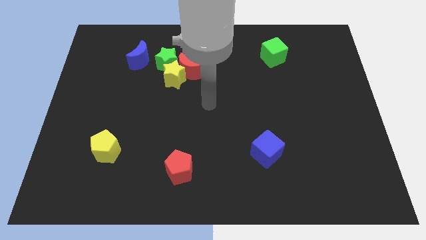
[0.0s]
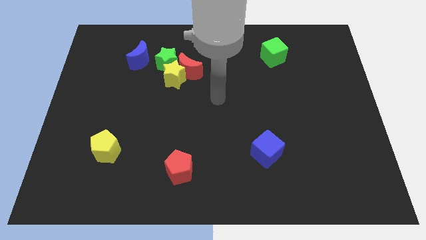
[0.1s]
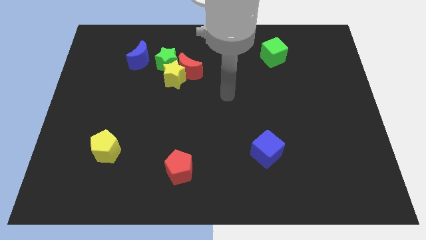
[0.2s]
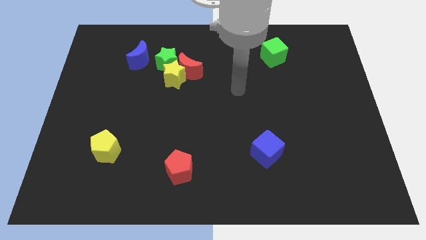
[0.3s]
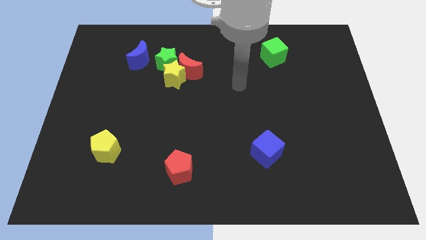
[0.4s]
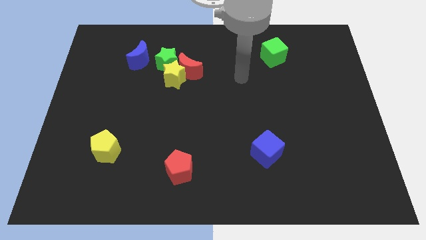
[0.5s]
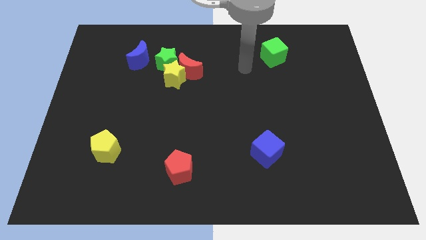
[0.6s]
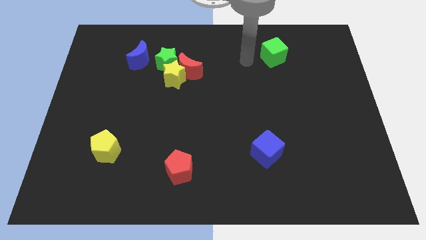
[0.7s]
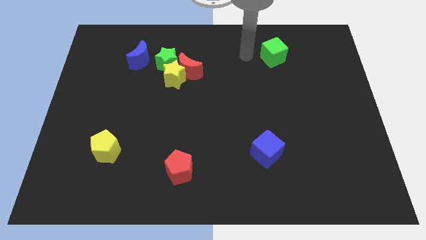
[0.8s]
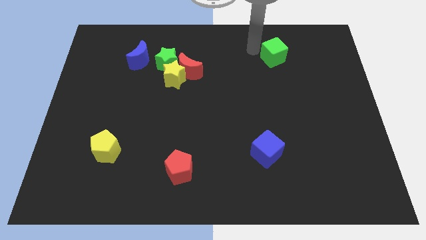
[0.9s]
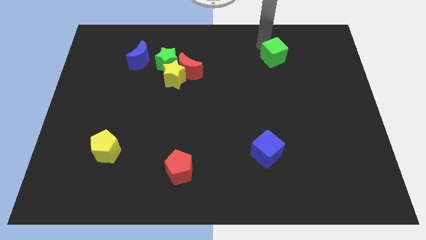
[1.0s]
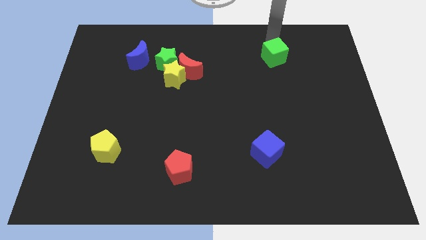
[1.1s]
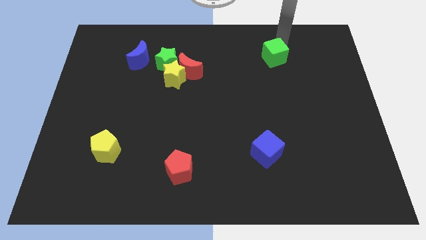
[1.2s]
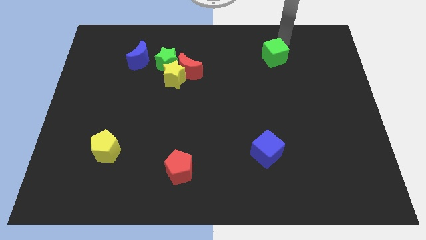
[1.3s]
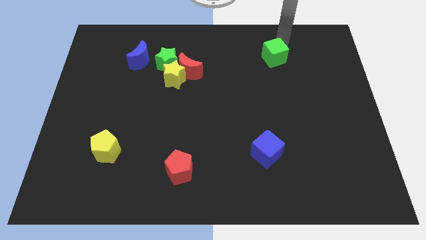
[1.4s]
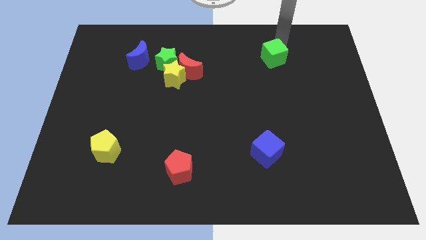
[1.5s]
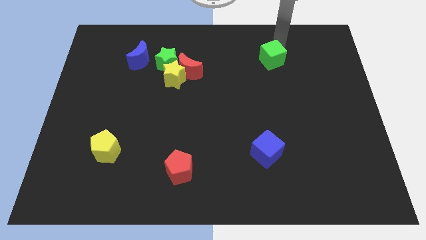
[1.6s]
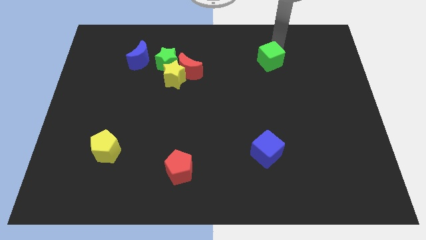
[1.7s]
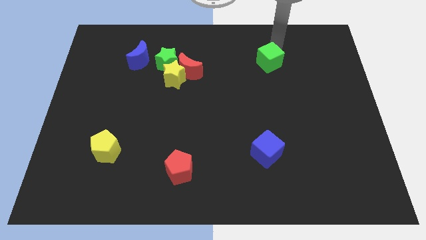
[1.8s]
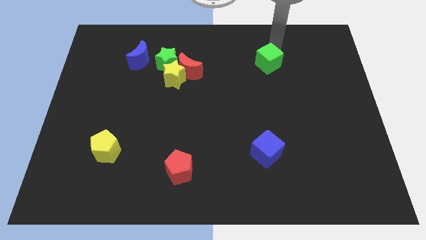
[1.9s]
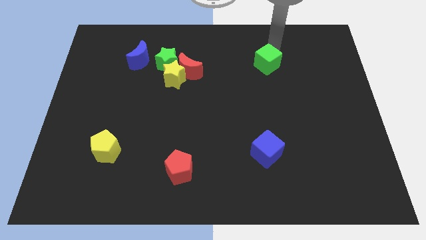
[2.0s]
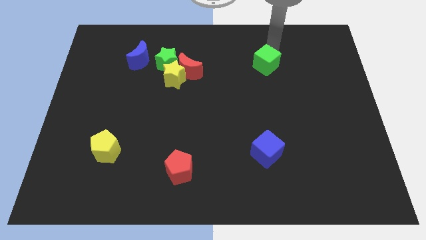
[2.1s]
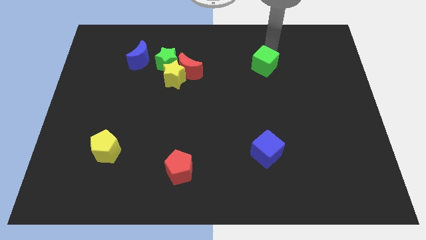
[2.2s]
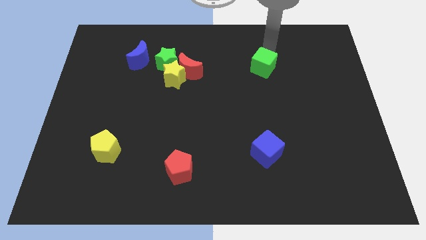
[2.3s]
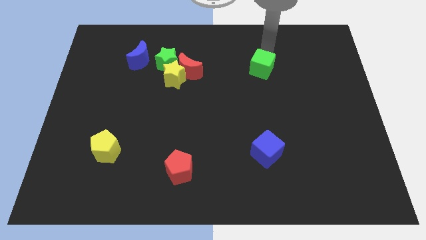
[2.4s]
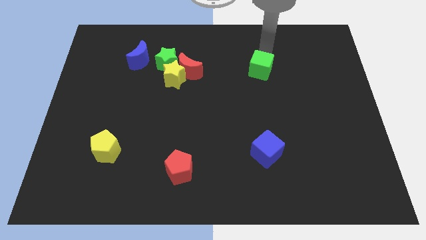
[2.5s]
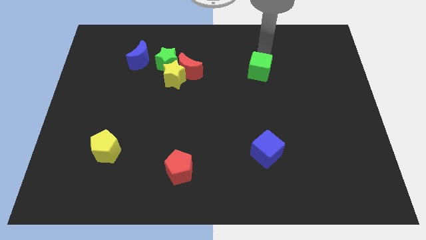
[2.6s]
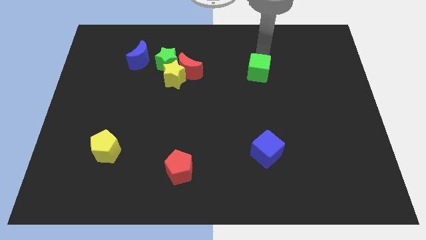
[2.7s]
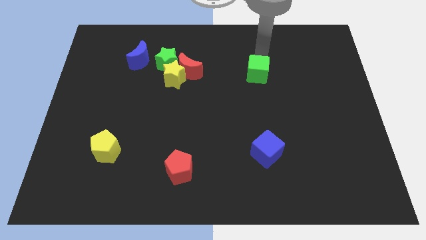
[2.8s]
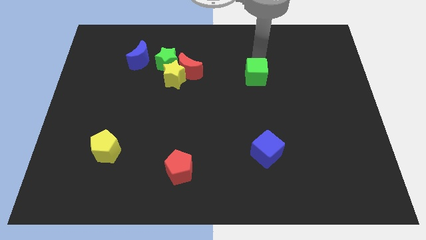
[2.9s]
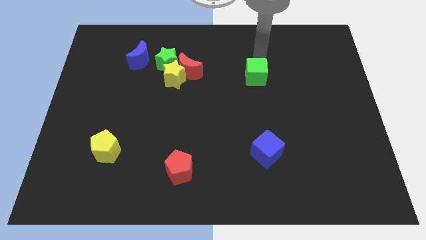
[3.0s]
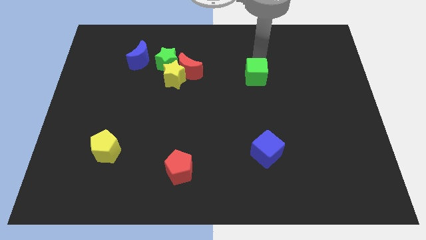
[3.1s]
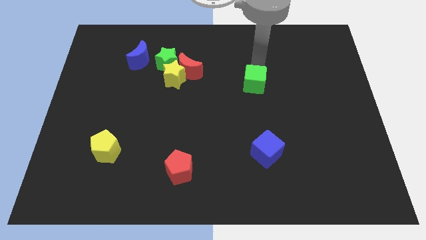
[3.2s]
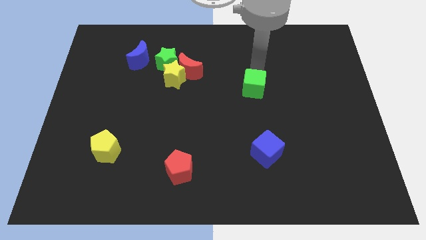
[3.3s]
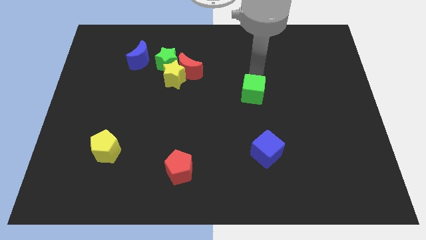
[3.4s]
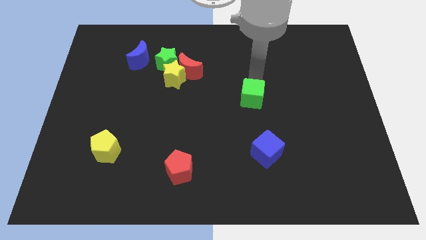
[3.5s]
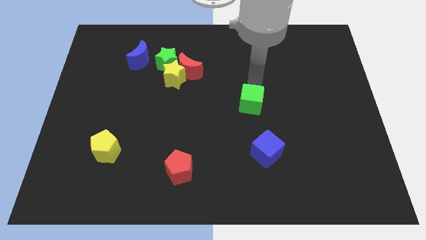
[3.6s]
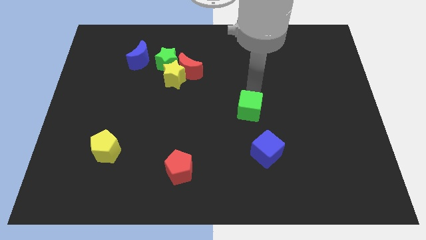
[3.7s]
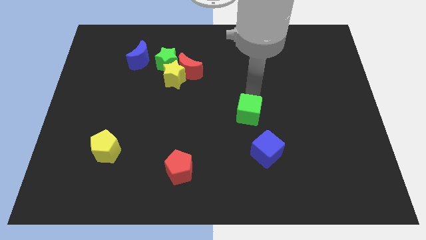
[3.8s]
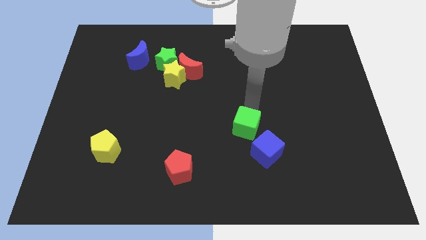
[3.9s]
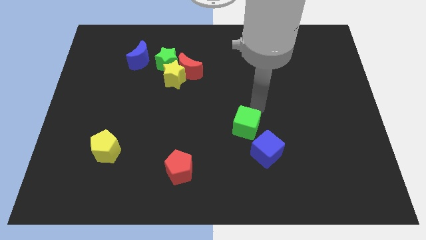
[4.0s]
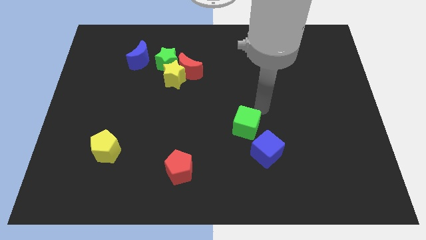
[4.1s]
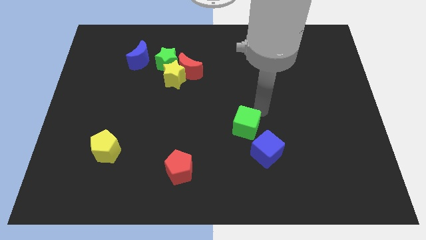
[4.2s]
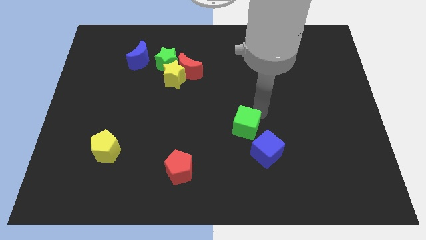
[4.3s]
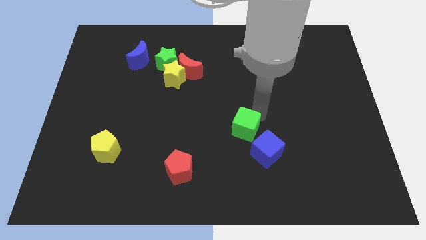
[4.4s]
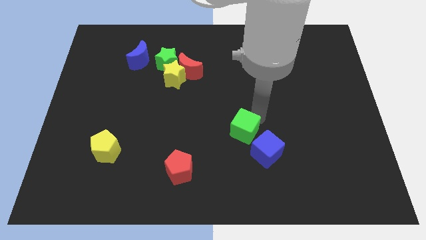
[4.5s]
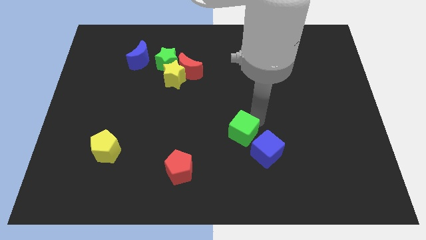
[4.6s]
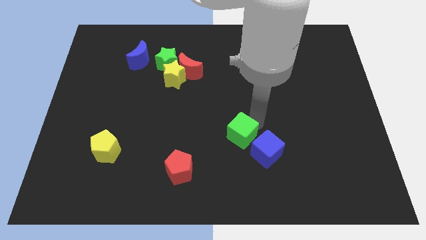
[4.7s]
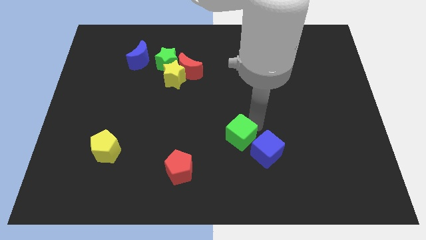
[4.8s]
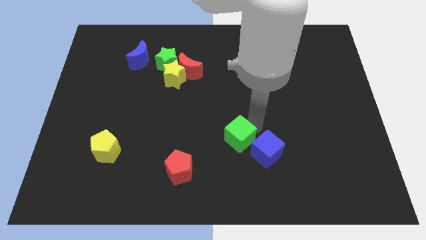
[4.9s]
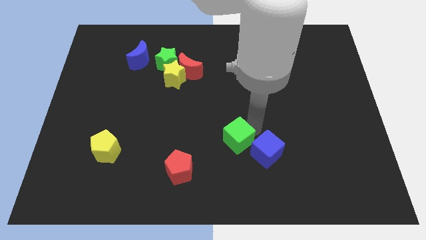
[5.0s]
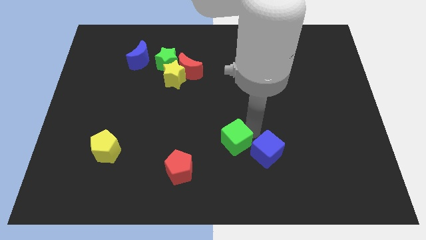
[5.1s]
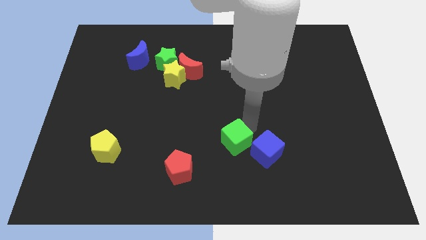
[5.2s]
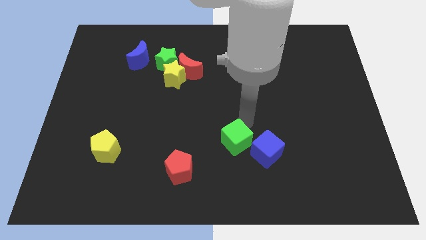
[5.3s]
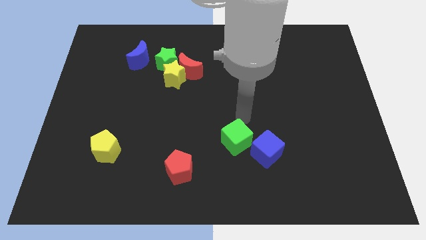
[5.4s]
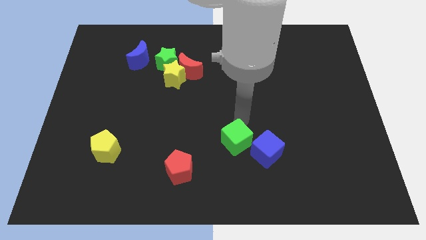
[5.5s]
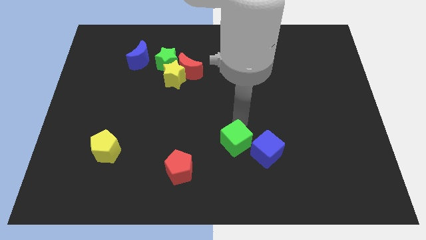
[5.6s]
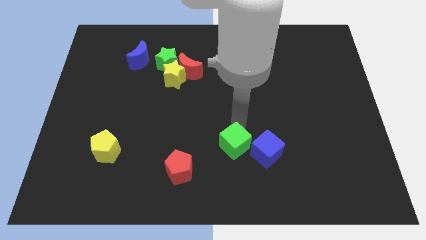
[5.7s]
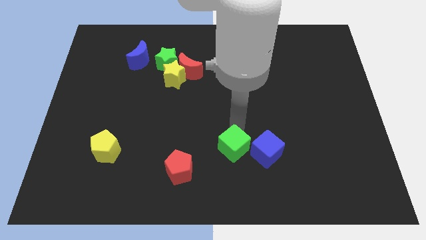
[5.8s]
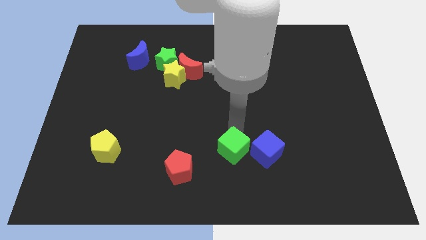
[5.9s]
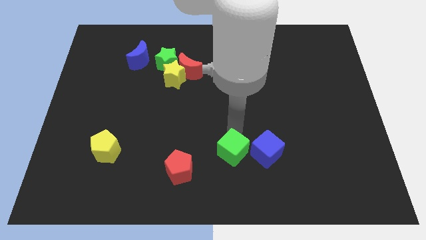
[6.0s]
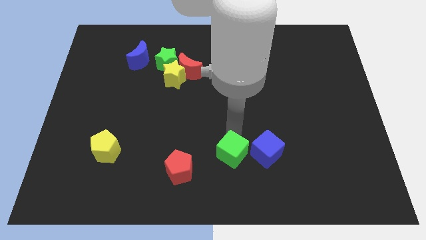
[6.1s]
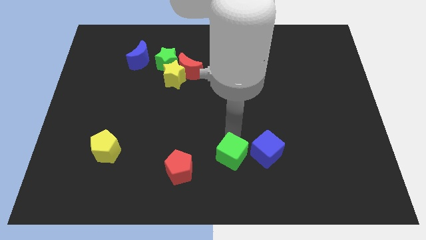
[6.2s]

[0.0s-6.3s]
move the green cube to the bottom side

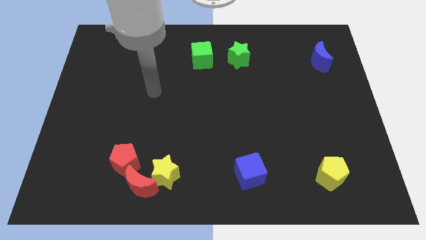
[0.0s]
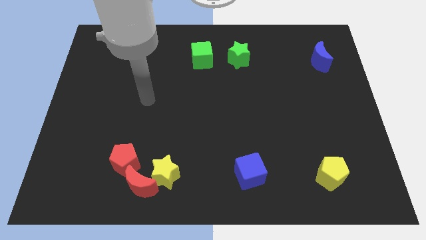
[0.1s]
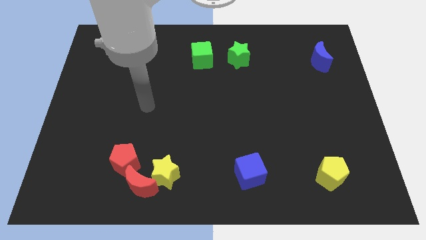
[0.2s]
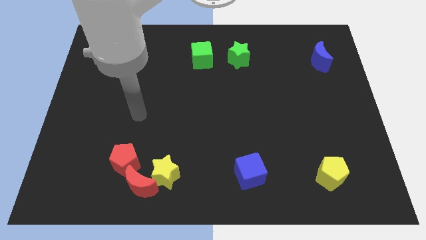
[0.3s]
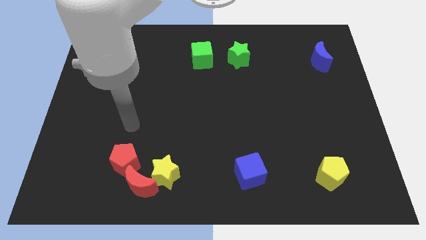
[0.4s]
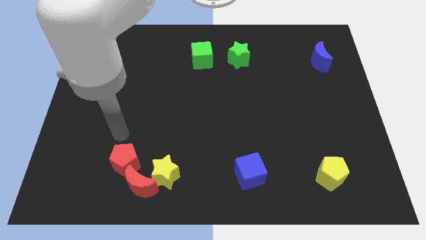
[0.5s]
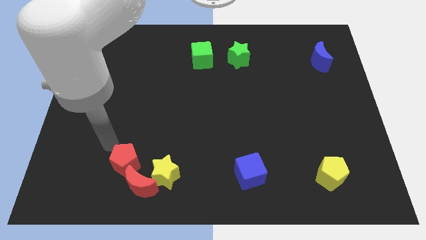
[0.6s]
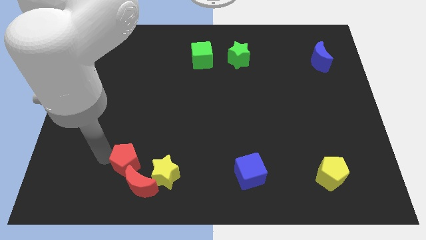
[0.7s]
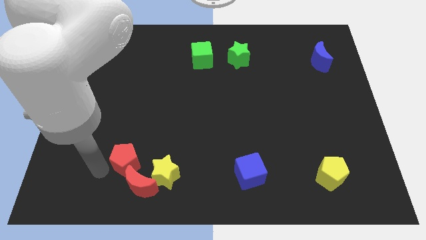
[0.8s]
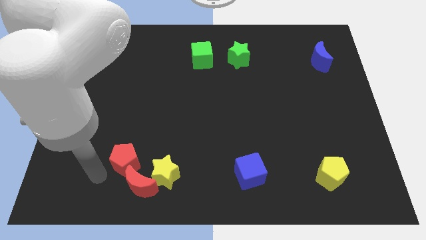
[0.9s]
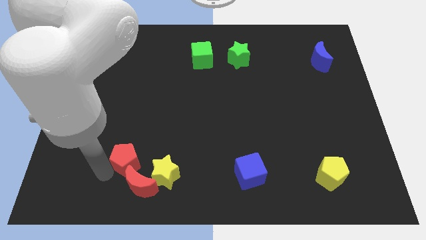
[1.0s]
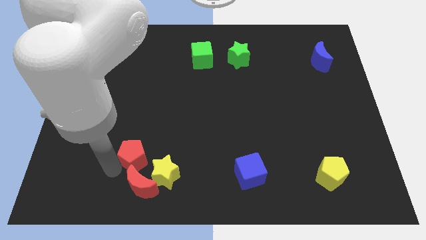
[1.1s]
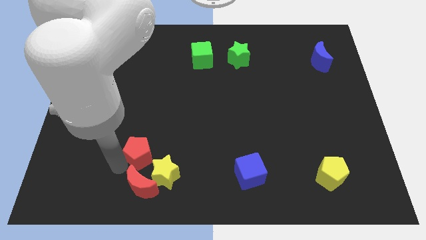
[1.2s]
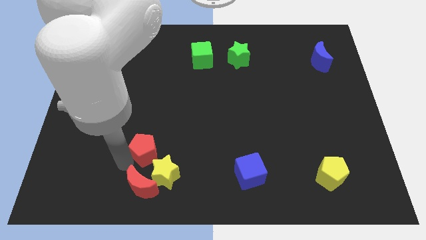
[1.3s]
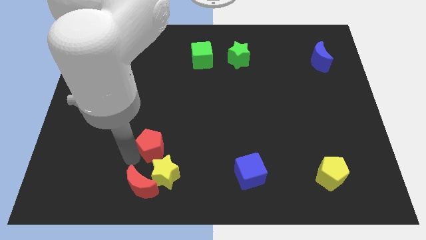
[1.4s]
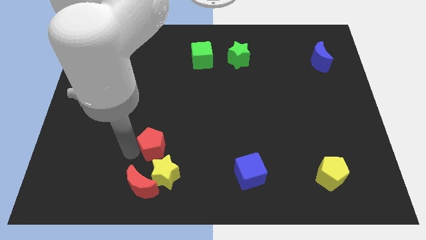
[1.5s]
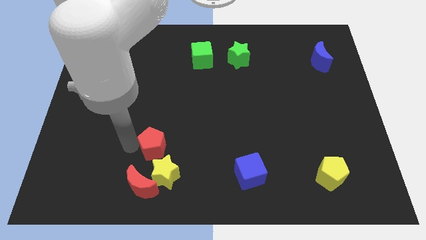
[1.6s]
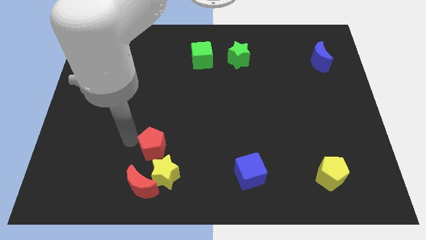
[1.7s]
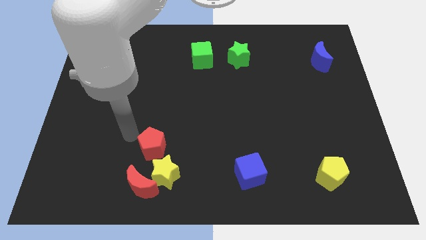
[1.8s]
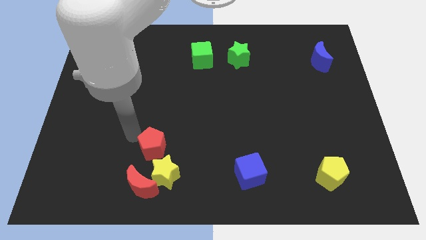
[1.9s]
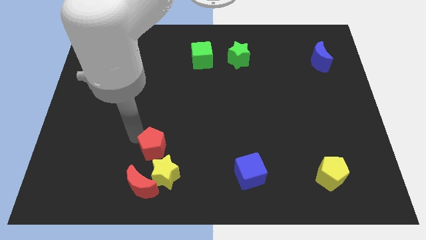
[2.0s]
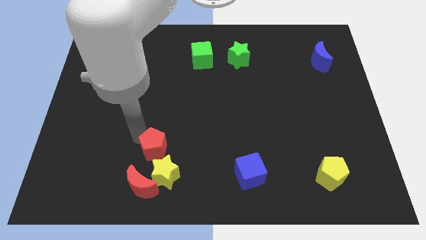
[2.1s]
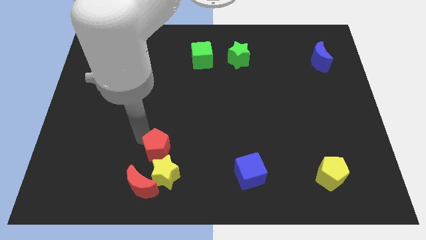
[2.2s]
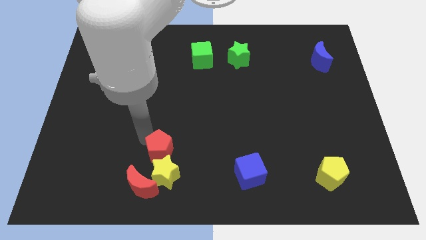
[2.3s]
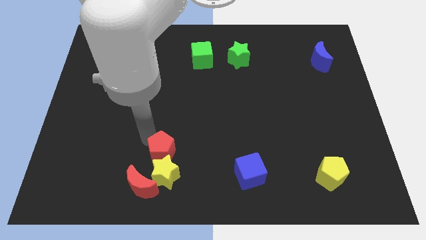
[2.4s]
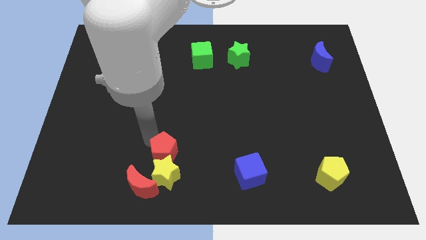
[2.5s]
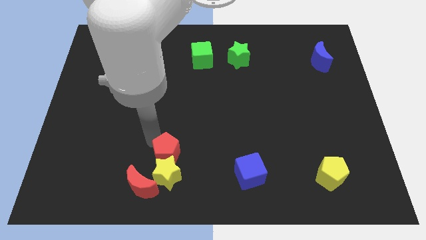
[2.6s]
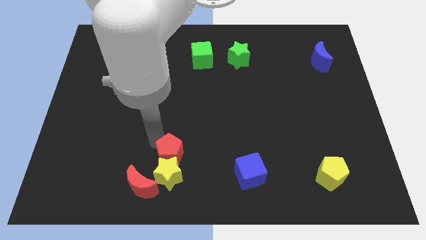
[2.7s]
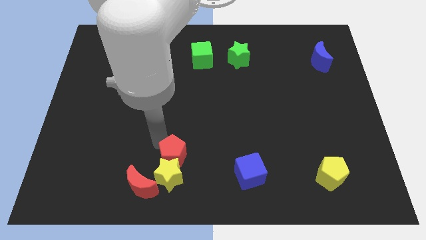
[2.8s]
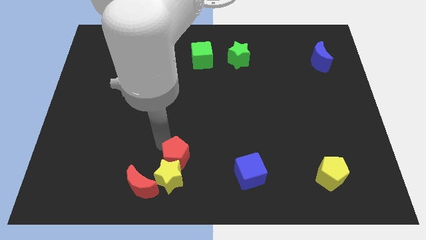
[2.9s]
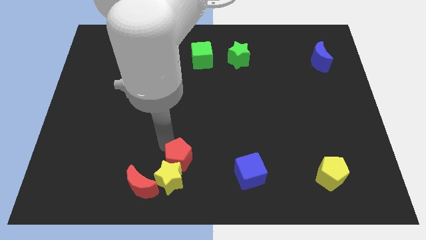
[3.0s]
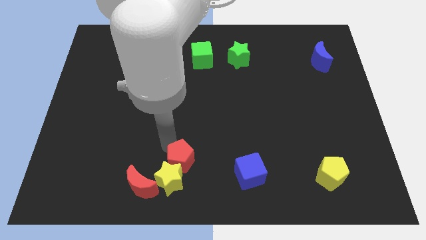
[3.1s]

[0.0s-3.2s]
slide the red pentagon to the bottom side
